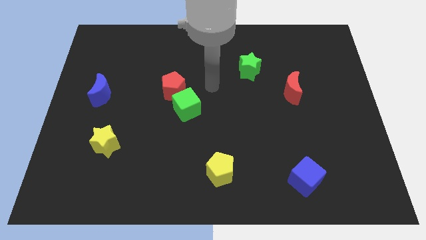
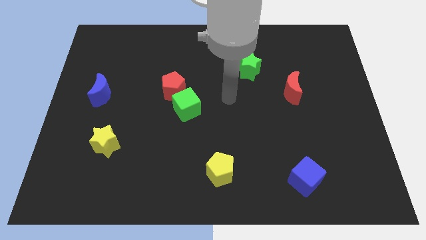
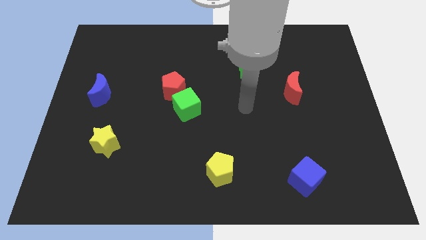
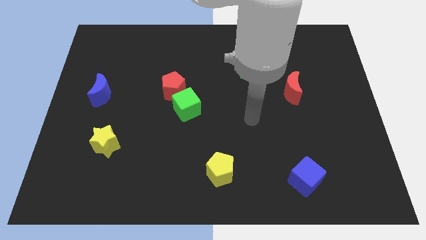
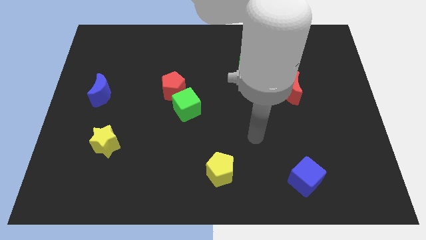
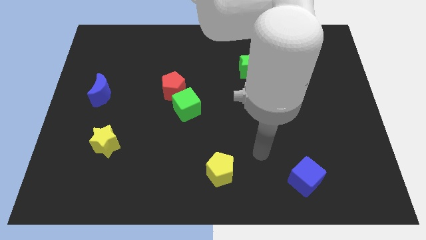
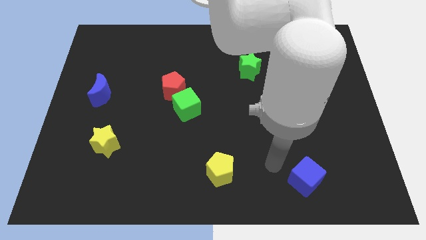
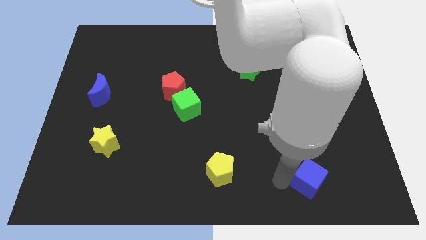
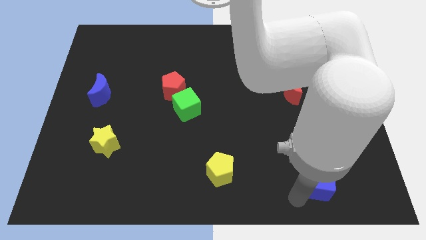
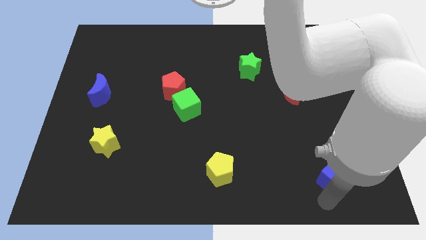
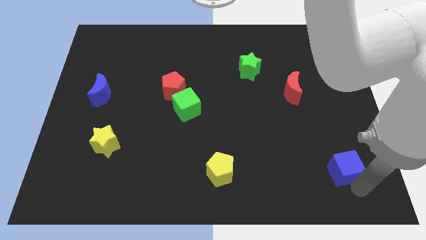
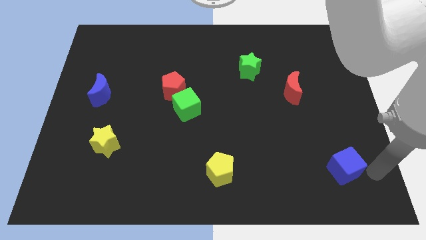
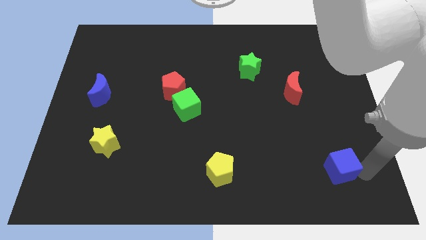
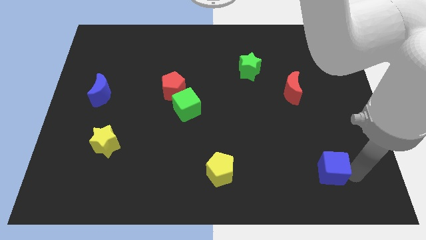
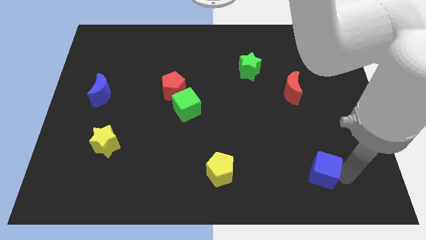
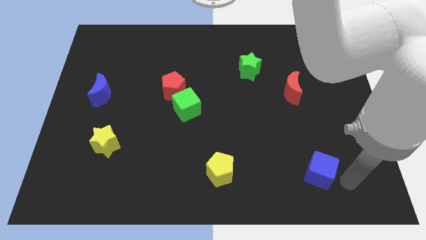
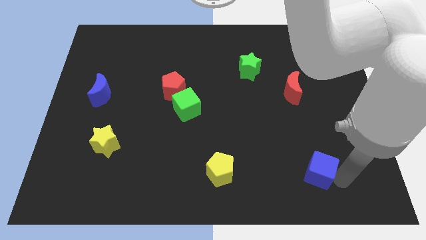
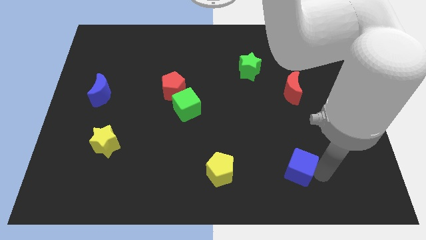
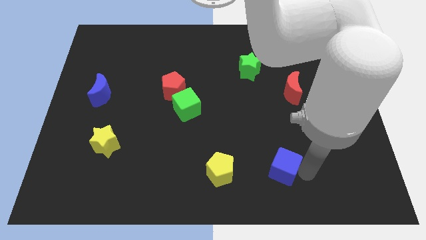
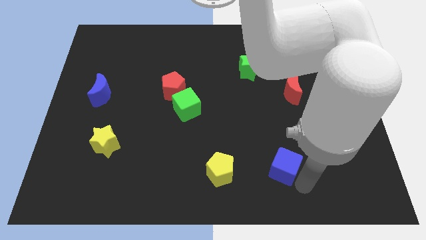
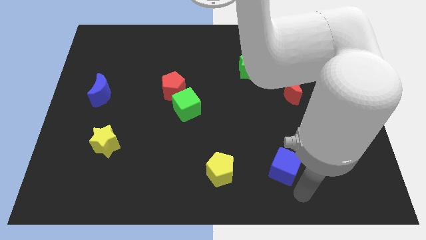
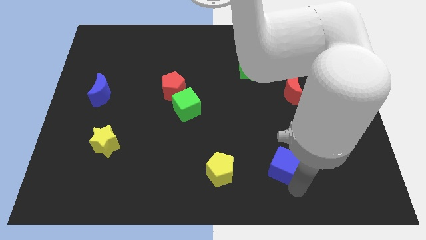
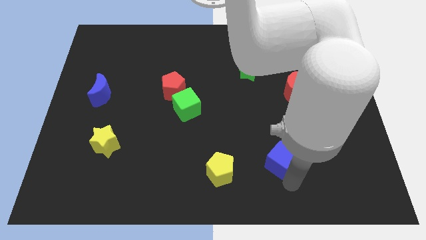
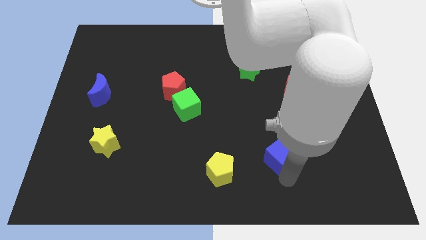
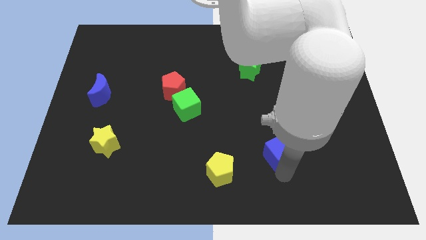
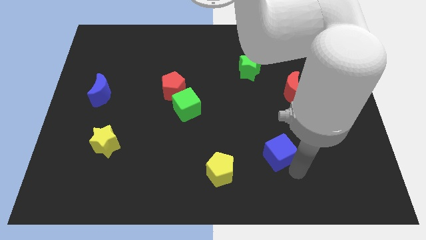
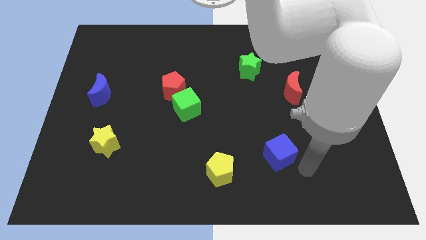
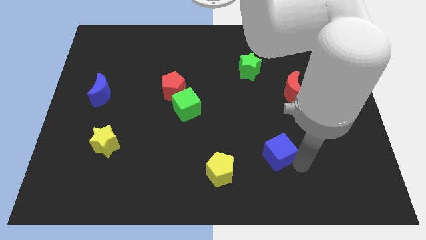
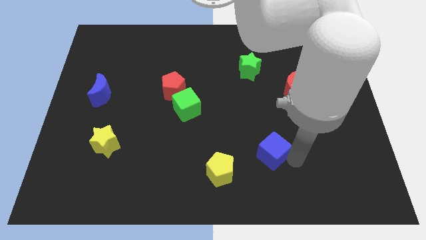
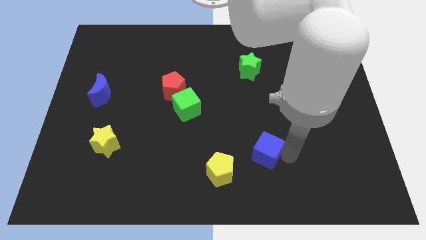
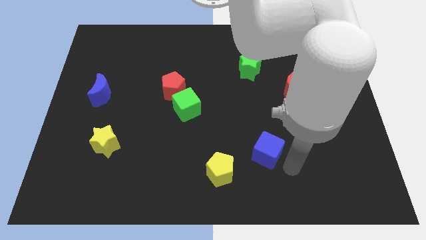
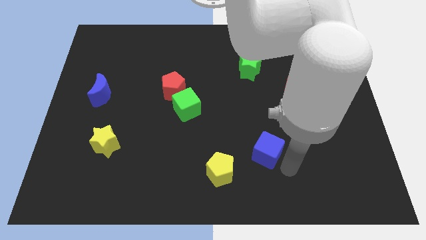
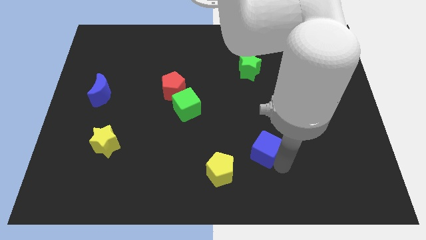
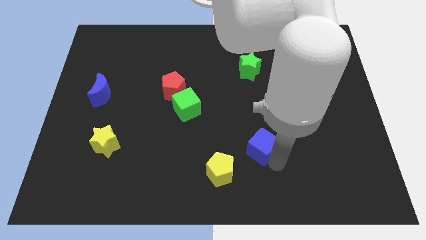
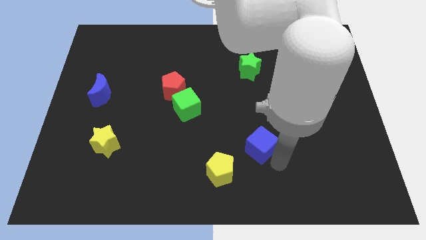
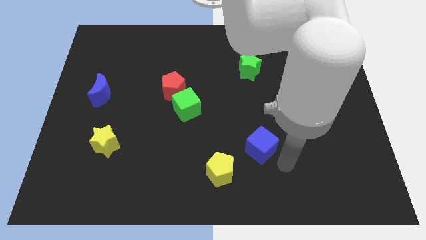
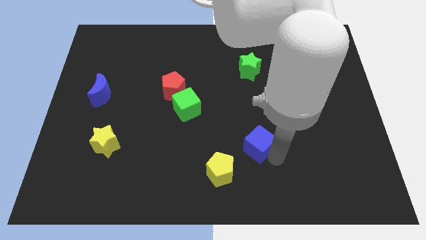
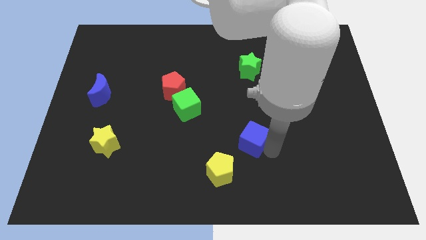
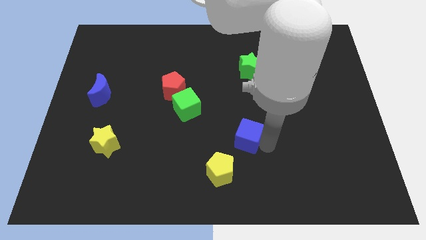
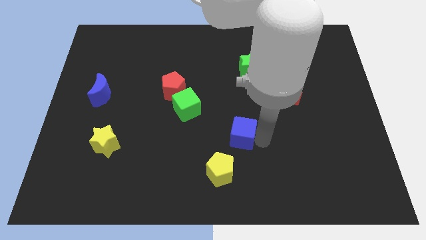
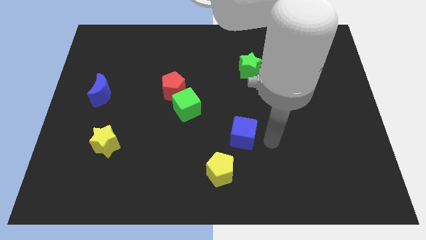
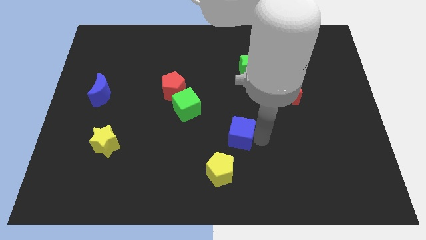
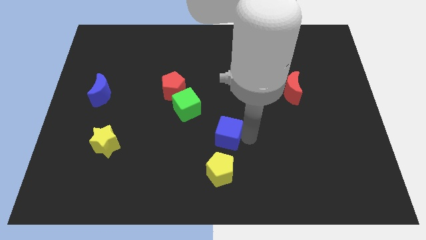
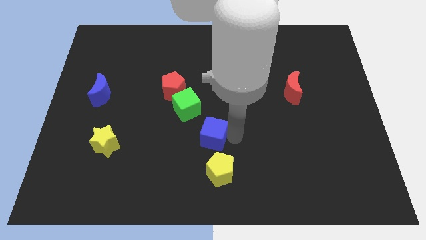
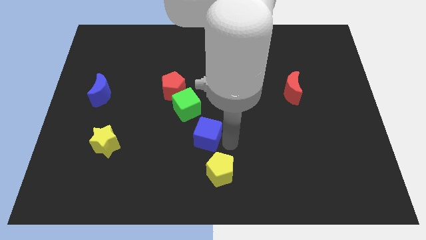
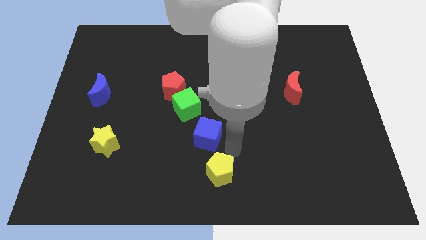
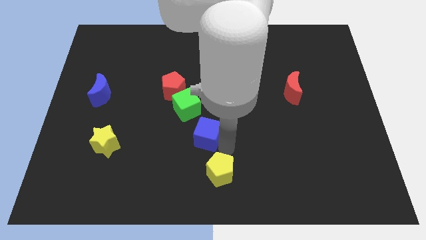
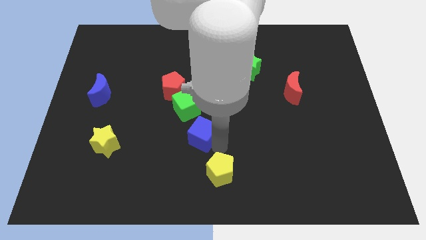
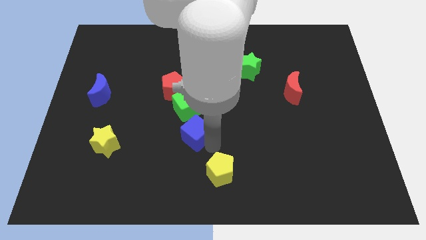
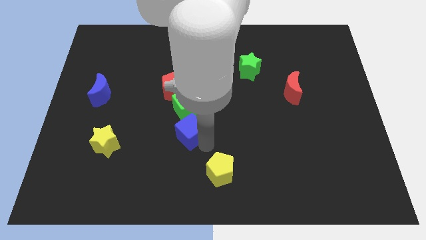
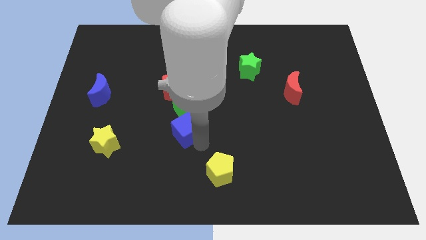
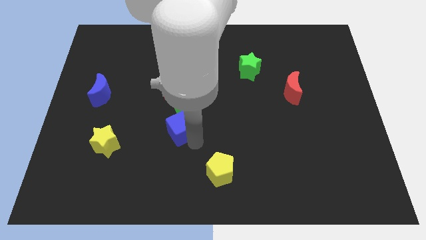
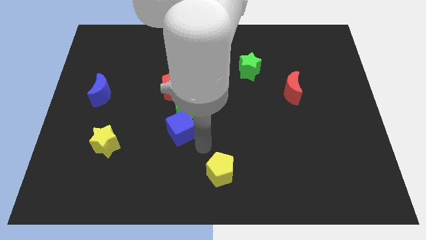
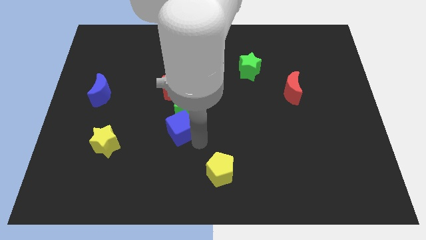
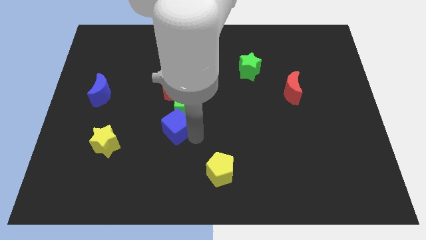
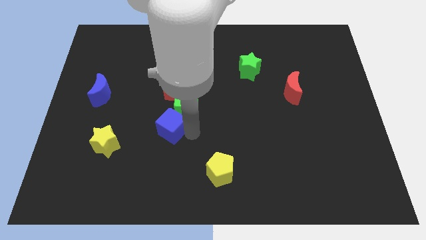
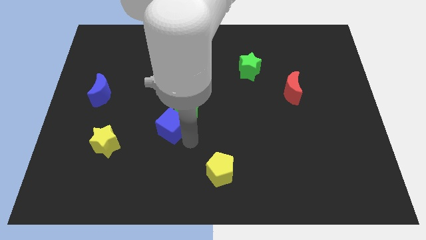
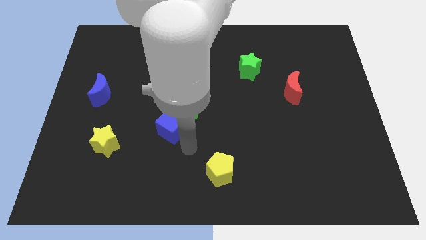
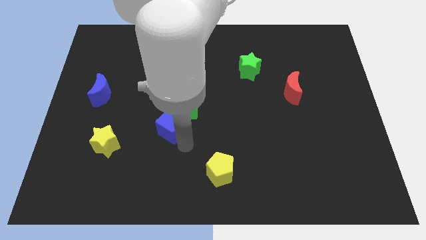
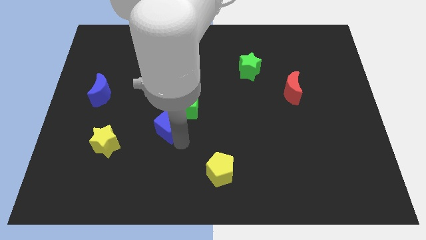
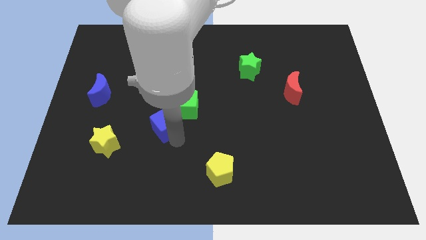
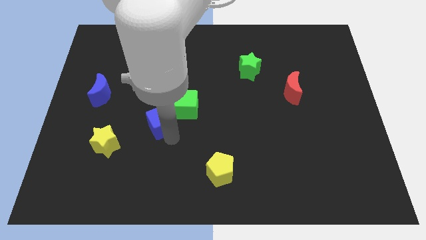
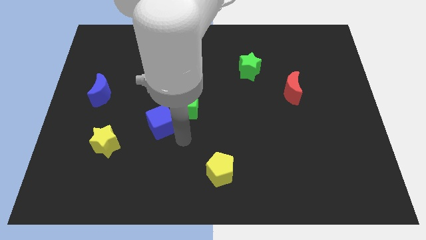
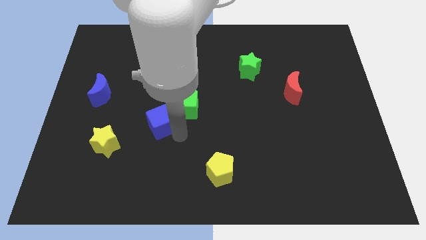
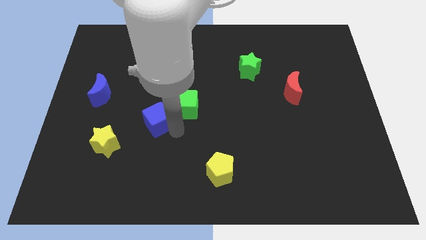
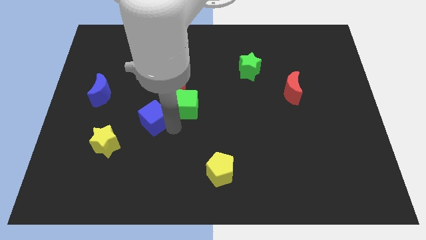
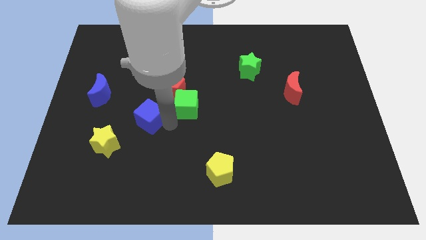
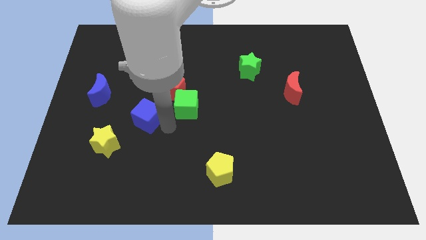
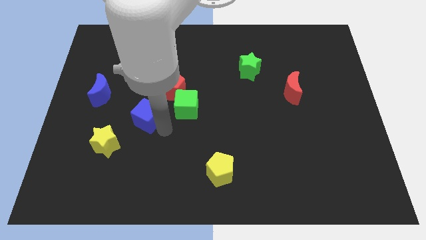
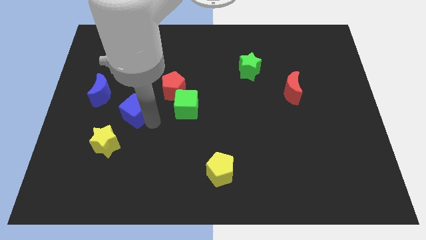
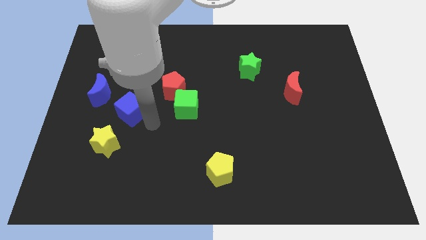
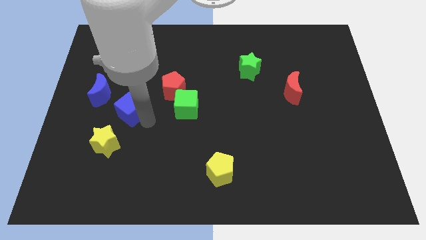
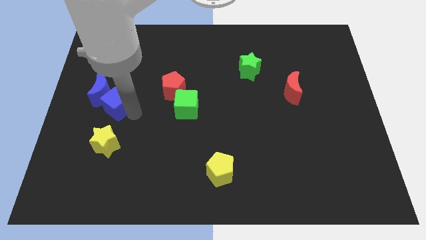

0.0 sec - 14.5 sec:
slide the blue cube to the blue moon
